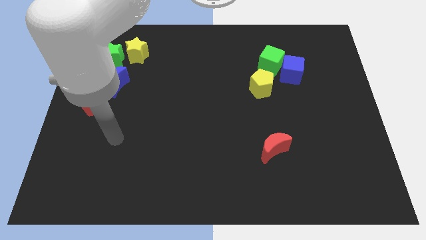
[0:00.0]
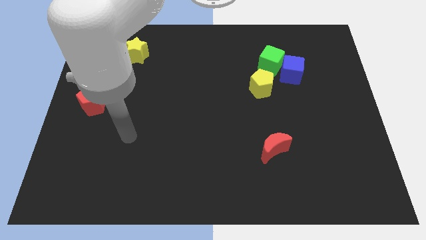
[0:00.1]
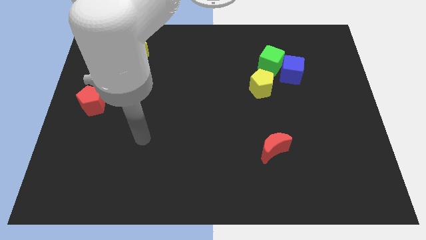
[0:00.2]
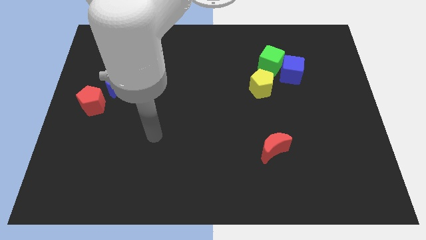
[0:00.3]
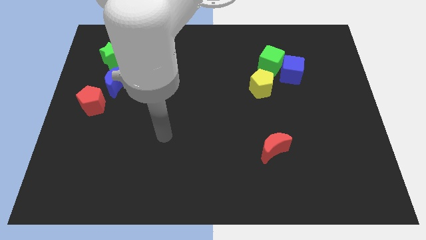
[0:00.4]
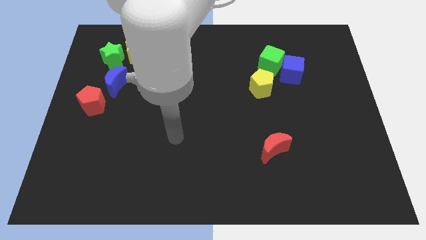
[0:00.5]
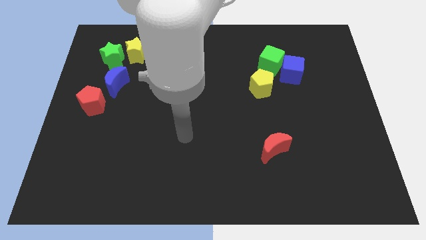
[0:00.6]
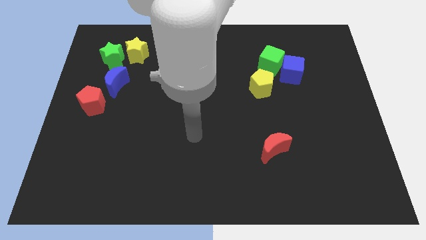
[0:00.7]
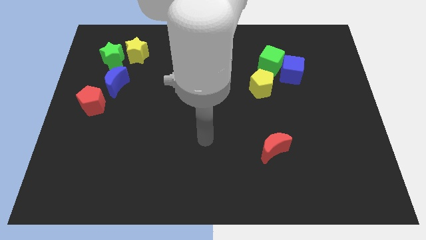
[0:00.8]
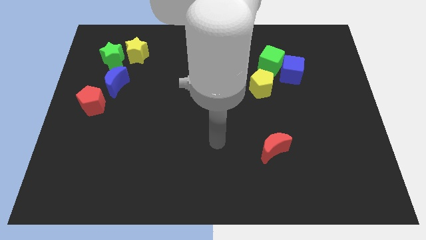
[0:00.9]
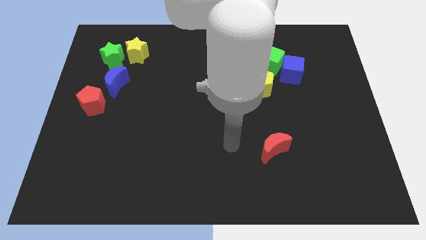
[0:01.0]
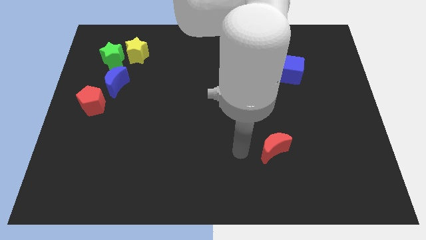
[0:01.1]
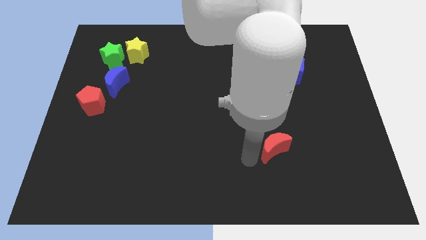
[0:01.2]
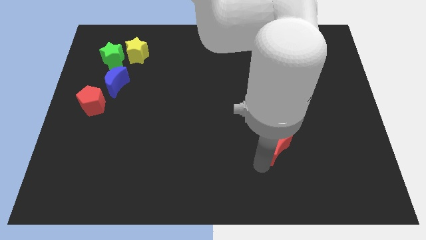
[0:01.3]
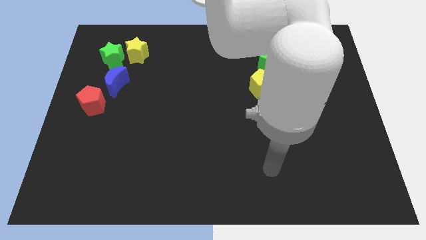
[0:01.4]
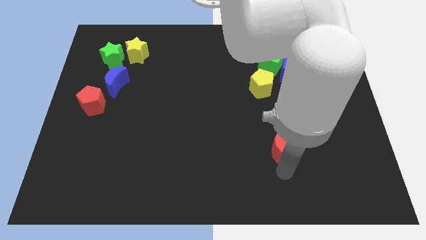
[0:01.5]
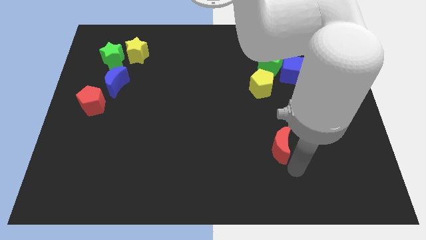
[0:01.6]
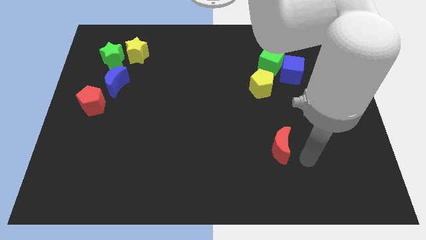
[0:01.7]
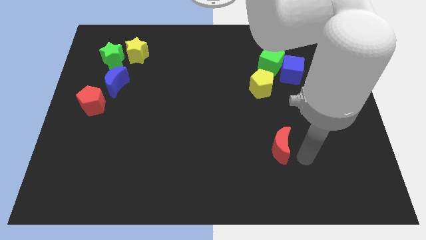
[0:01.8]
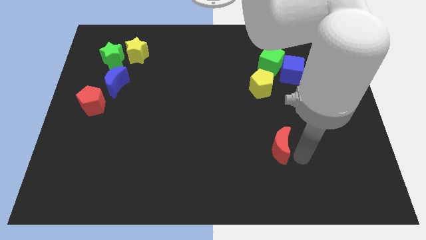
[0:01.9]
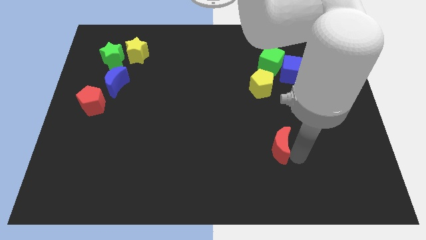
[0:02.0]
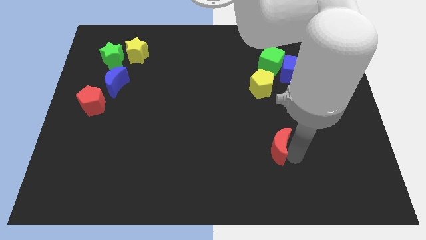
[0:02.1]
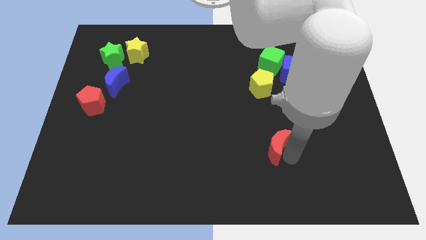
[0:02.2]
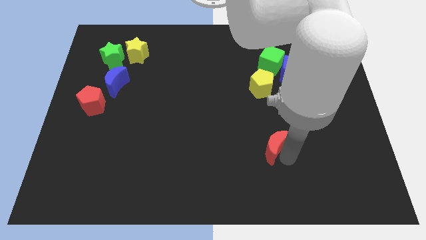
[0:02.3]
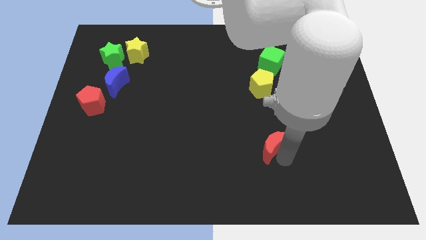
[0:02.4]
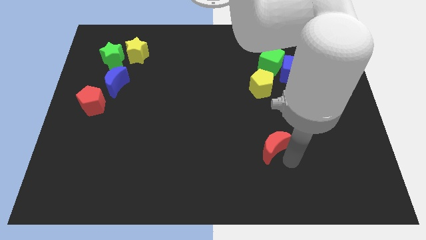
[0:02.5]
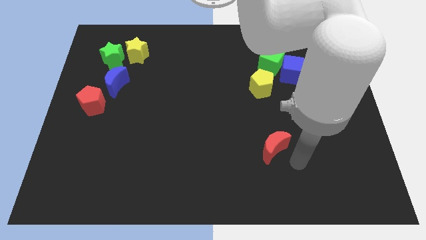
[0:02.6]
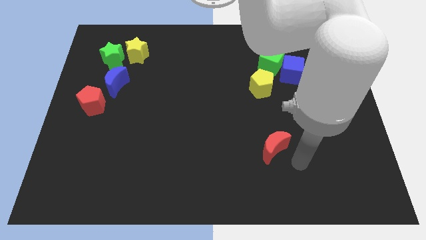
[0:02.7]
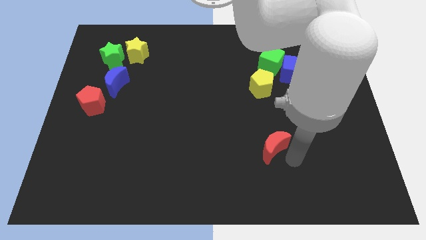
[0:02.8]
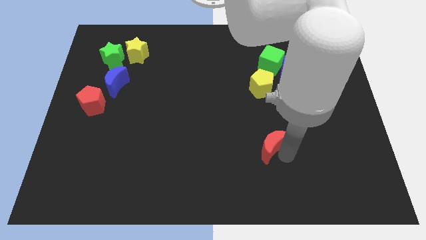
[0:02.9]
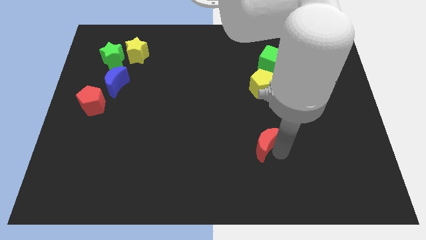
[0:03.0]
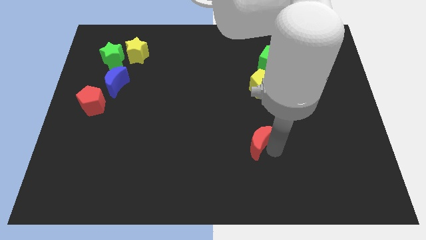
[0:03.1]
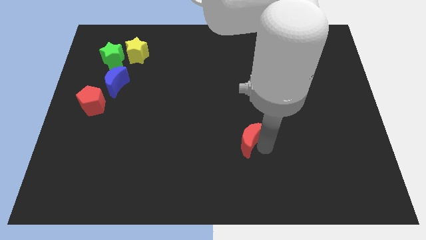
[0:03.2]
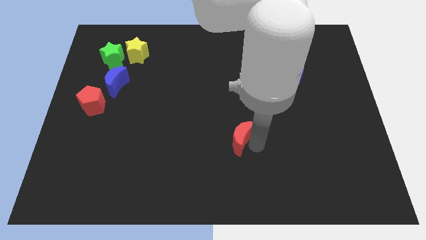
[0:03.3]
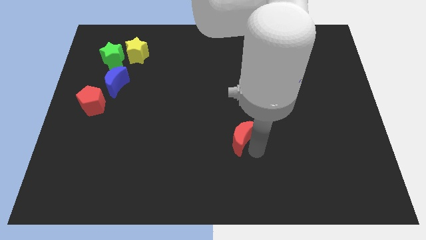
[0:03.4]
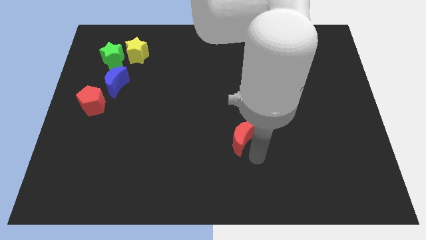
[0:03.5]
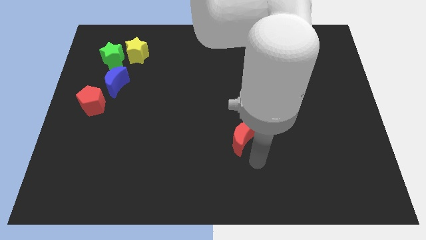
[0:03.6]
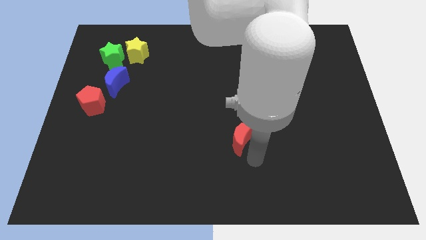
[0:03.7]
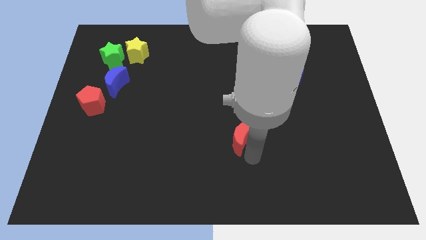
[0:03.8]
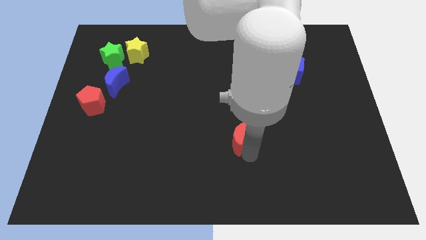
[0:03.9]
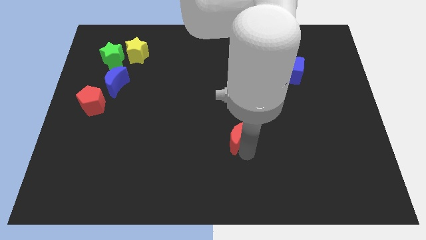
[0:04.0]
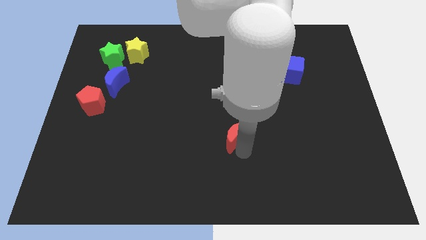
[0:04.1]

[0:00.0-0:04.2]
slightly move the red moon up and left

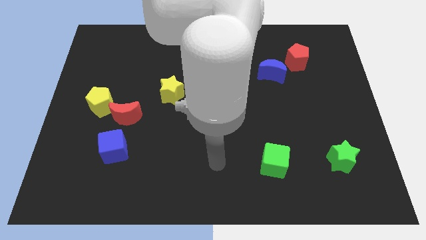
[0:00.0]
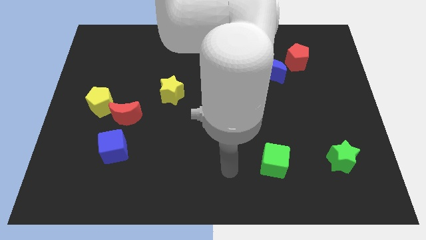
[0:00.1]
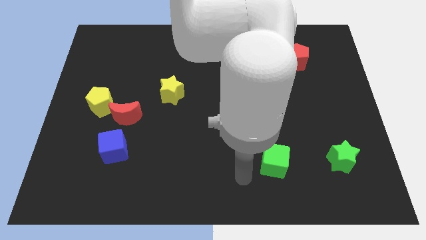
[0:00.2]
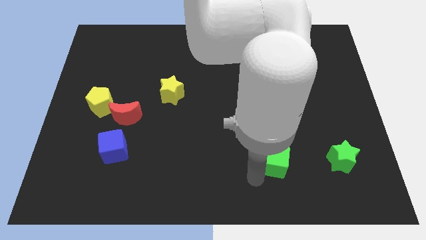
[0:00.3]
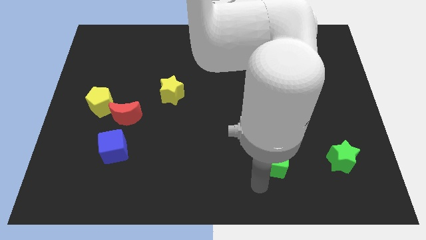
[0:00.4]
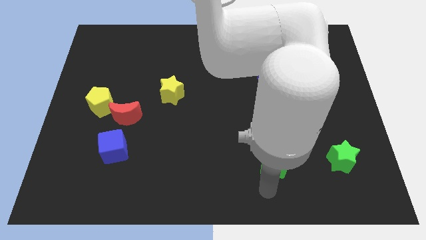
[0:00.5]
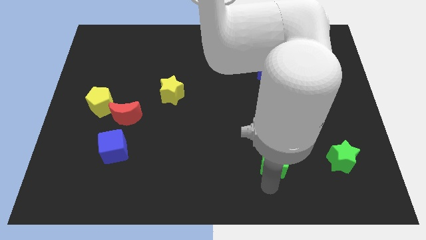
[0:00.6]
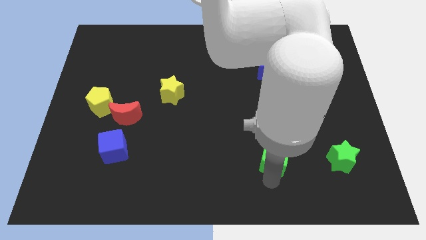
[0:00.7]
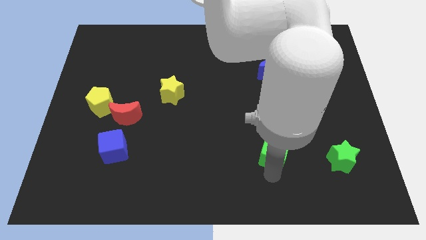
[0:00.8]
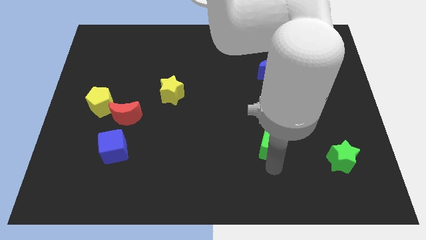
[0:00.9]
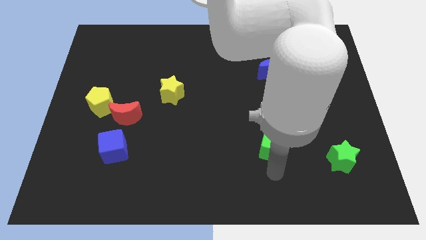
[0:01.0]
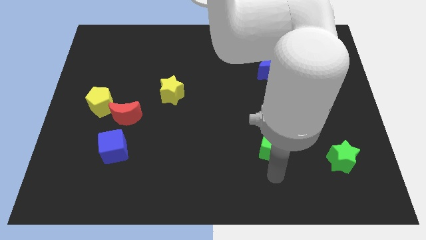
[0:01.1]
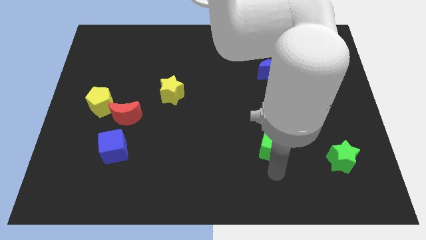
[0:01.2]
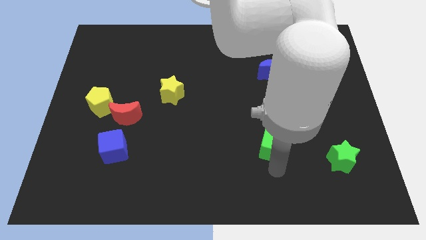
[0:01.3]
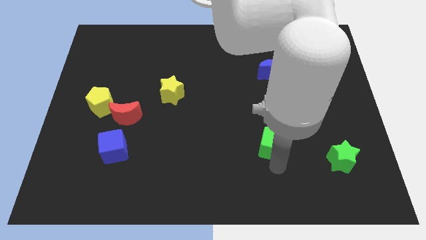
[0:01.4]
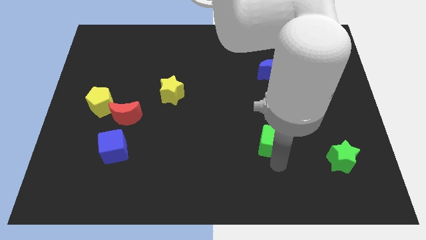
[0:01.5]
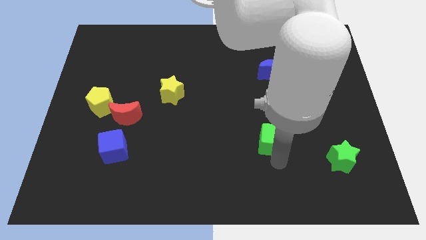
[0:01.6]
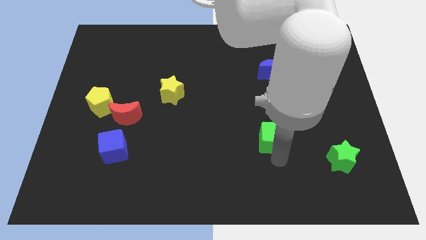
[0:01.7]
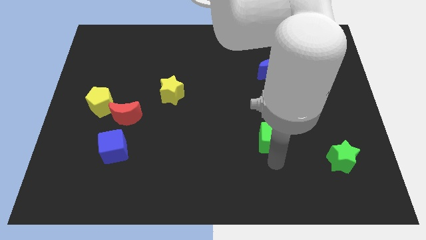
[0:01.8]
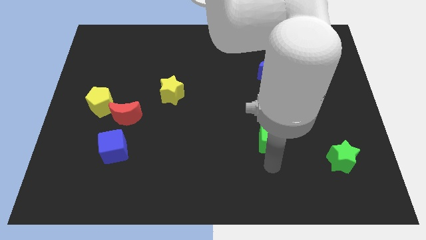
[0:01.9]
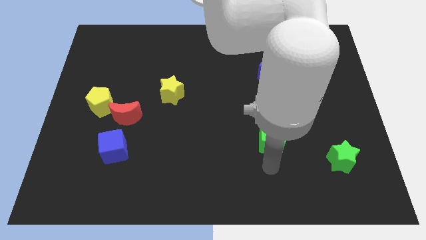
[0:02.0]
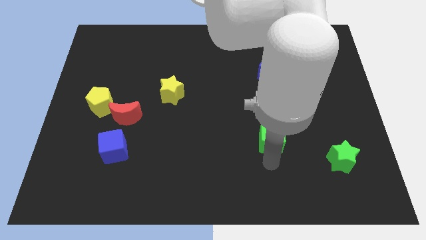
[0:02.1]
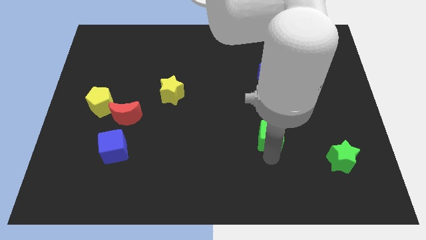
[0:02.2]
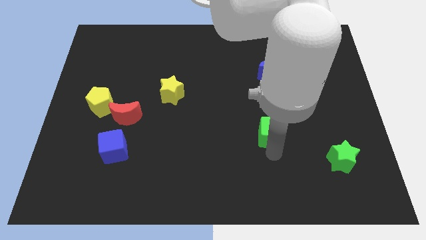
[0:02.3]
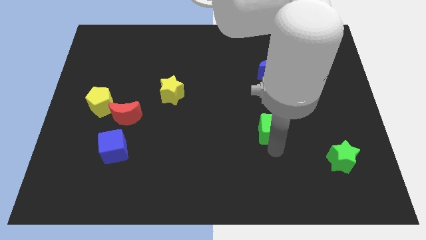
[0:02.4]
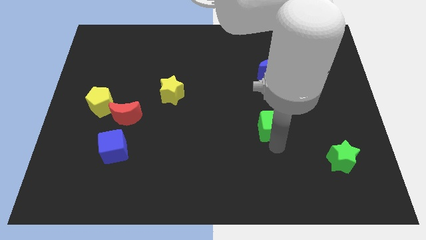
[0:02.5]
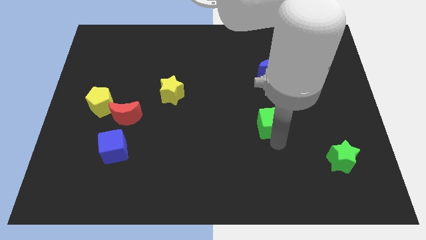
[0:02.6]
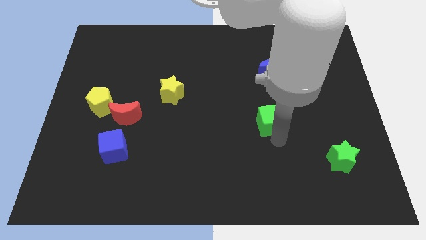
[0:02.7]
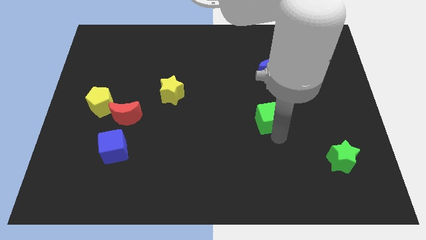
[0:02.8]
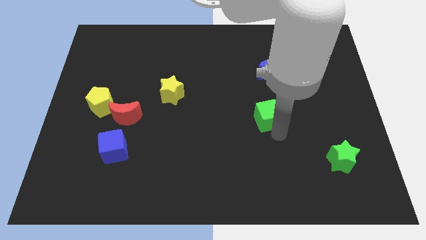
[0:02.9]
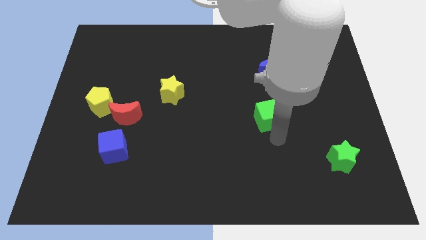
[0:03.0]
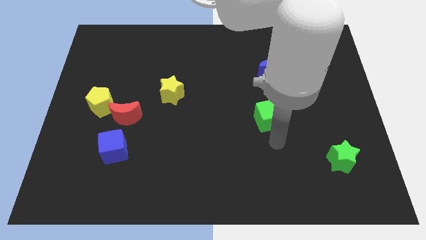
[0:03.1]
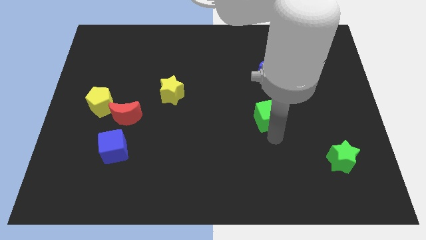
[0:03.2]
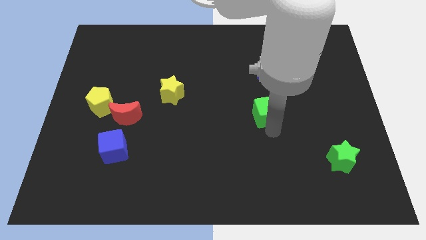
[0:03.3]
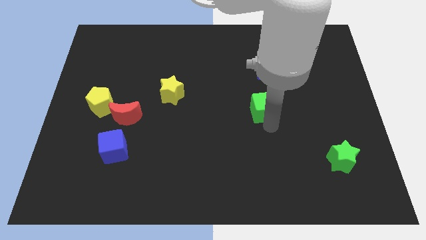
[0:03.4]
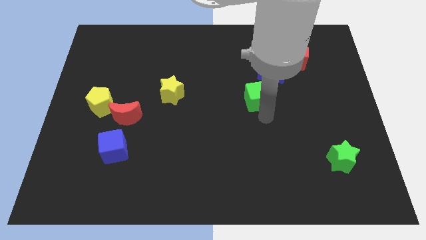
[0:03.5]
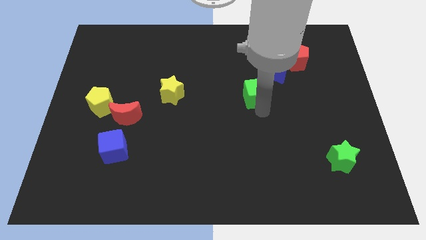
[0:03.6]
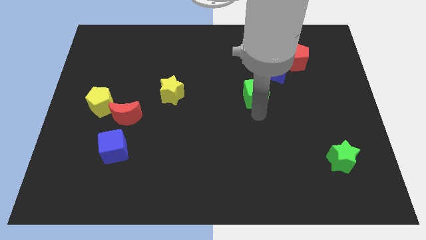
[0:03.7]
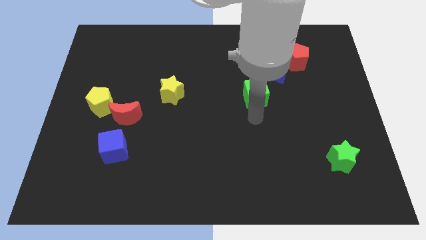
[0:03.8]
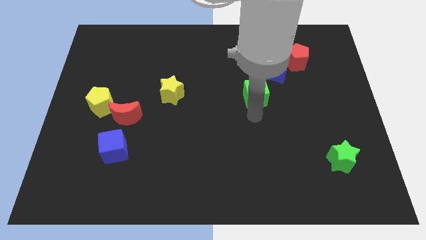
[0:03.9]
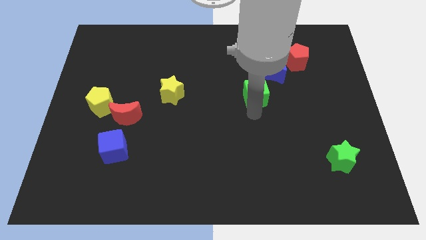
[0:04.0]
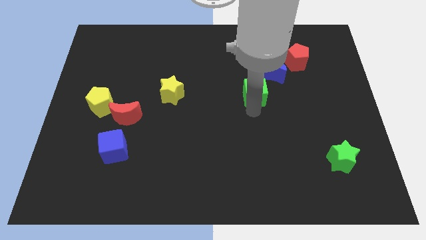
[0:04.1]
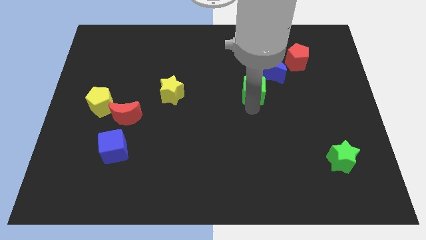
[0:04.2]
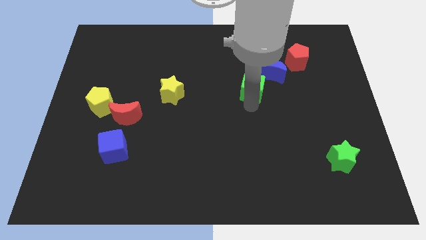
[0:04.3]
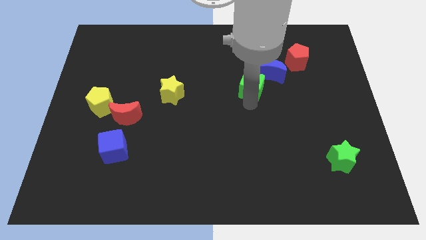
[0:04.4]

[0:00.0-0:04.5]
move the green cube upwards
